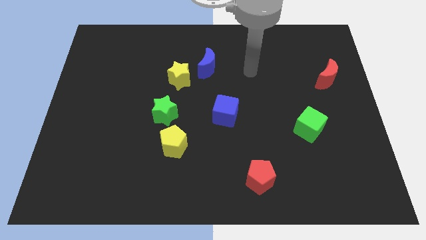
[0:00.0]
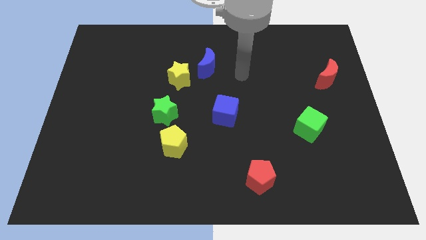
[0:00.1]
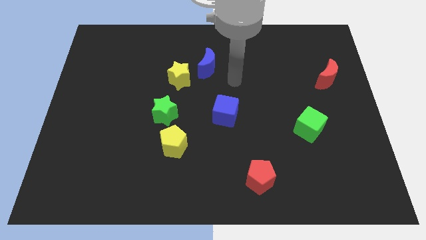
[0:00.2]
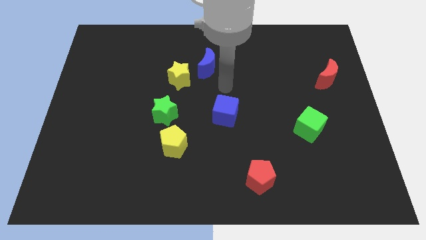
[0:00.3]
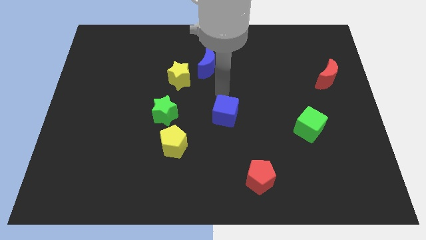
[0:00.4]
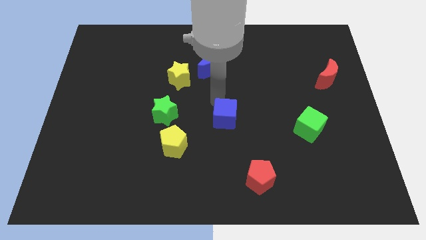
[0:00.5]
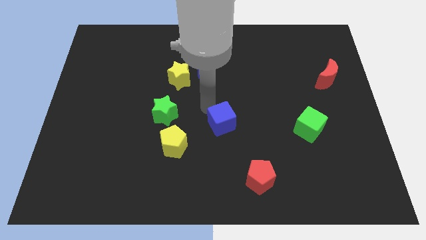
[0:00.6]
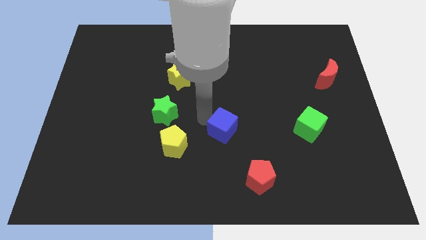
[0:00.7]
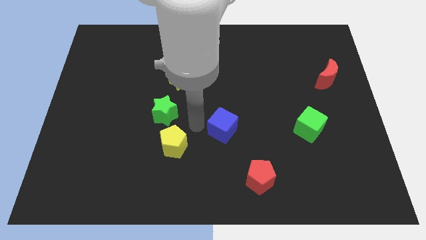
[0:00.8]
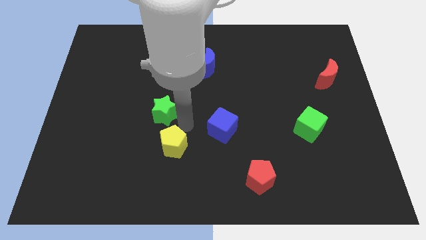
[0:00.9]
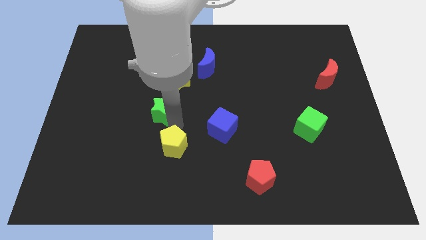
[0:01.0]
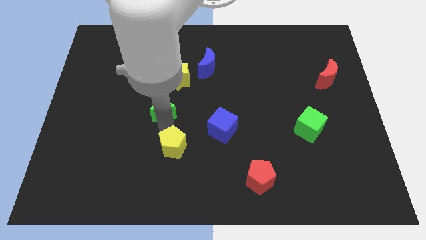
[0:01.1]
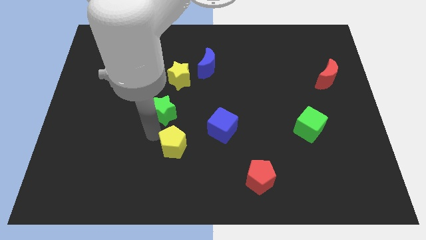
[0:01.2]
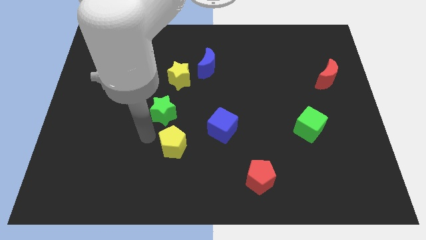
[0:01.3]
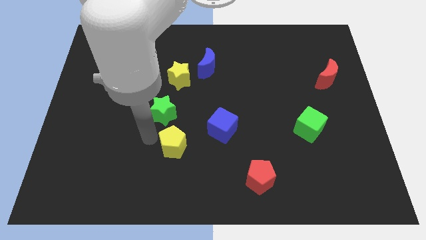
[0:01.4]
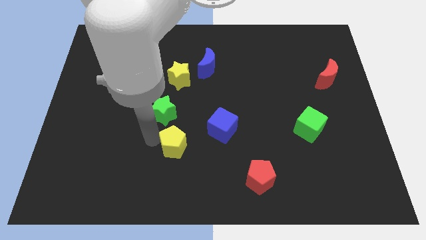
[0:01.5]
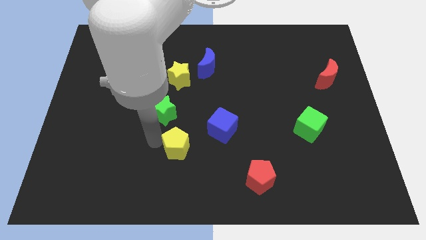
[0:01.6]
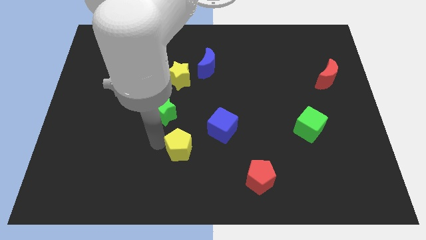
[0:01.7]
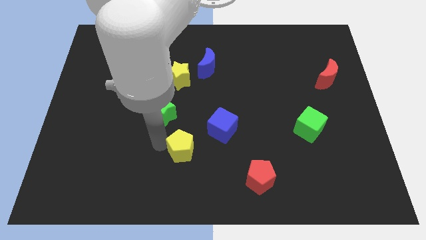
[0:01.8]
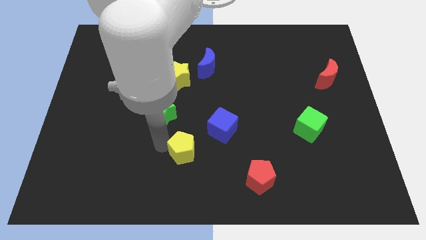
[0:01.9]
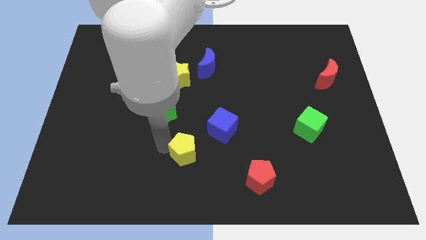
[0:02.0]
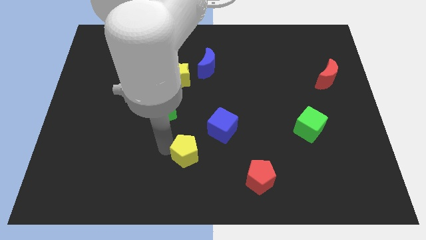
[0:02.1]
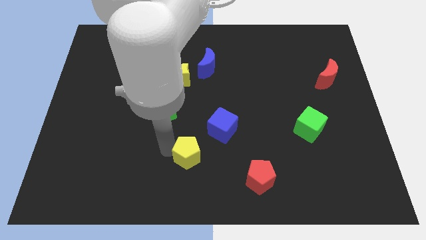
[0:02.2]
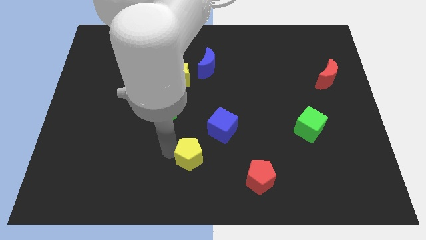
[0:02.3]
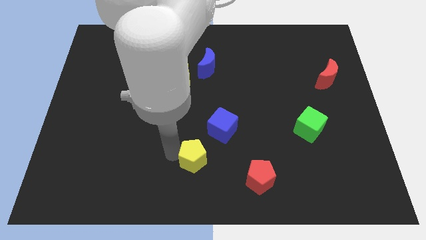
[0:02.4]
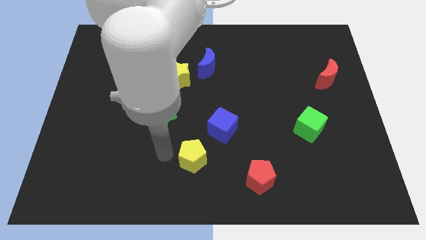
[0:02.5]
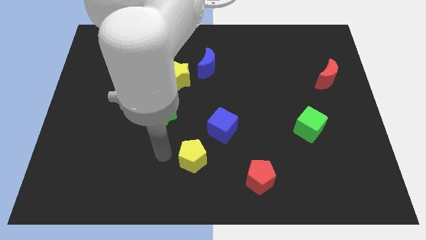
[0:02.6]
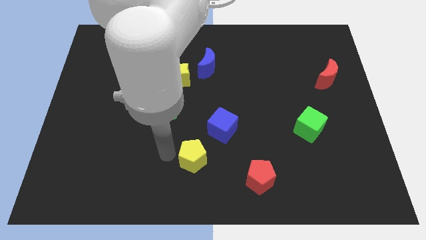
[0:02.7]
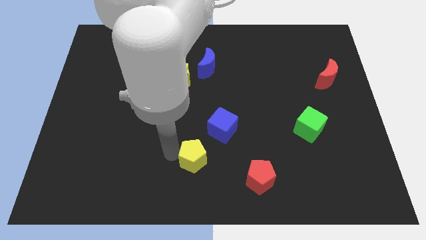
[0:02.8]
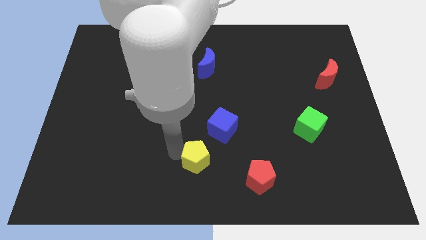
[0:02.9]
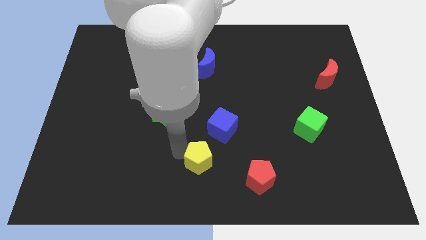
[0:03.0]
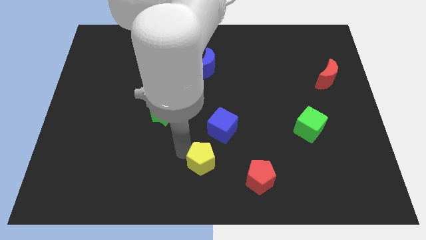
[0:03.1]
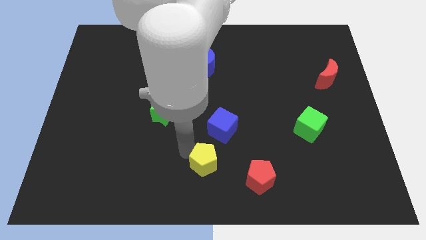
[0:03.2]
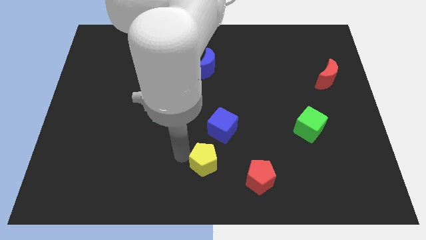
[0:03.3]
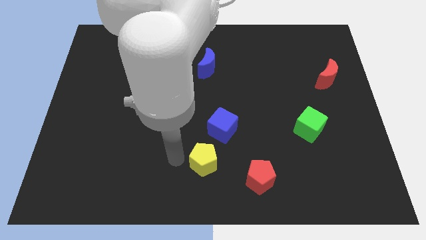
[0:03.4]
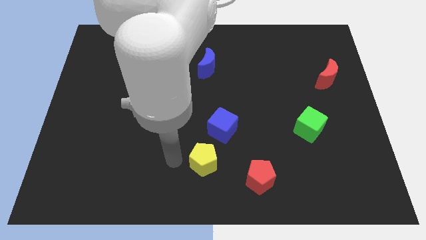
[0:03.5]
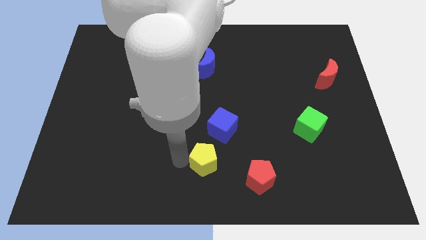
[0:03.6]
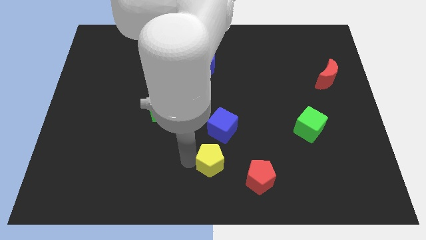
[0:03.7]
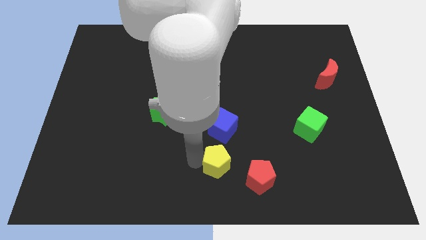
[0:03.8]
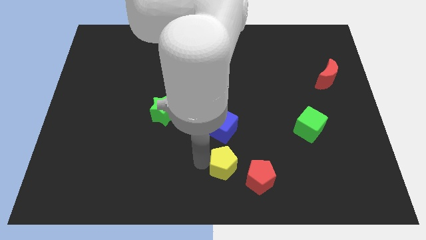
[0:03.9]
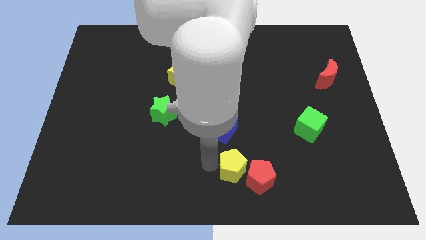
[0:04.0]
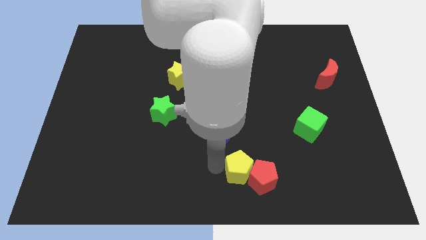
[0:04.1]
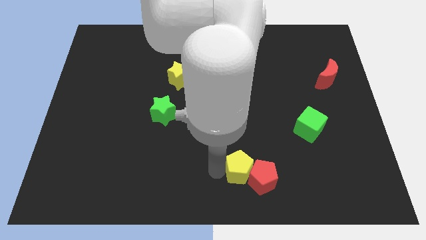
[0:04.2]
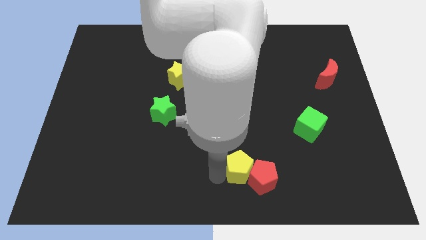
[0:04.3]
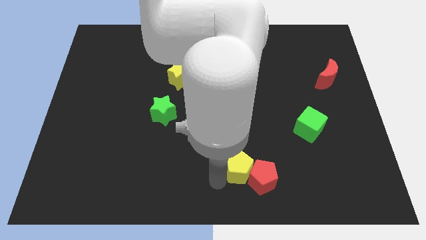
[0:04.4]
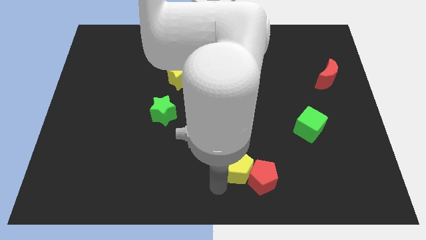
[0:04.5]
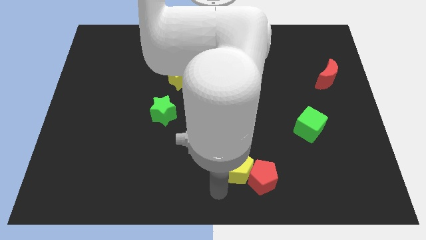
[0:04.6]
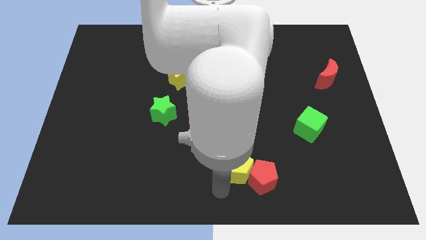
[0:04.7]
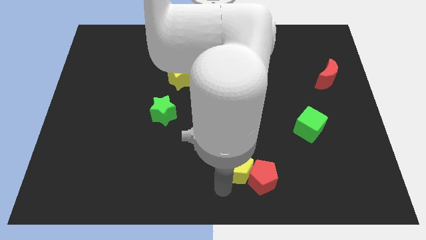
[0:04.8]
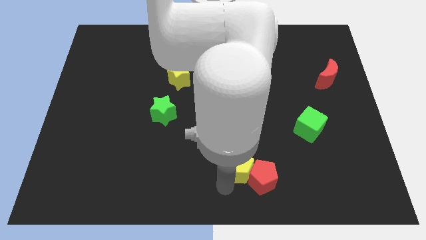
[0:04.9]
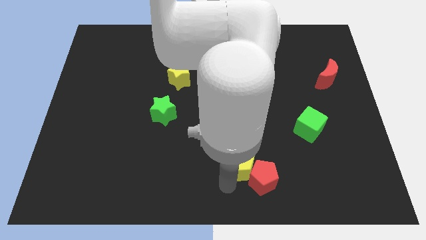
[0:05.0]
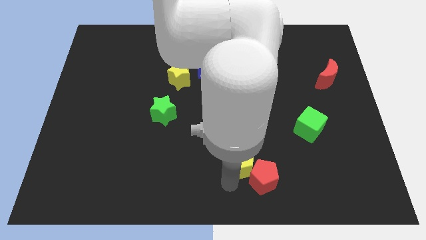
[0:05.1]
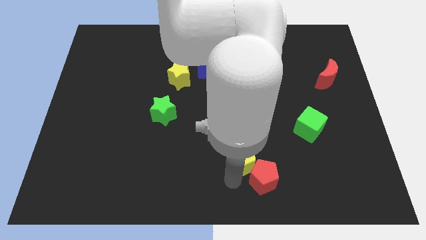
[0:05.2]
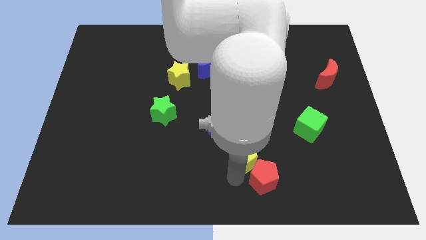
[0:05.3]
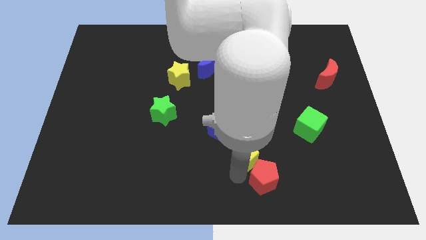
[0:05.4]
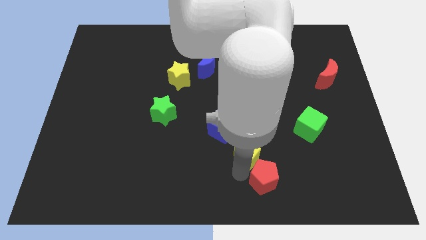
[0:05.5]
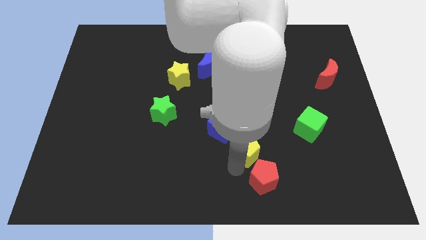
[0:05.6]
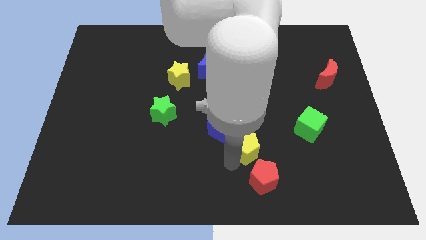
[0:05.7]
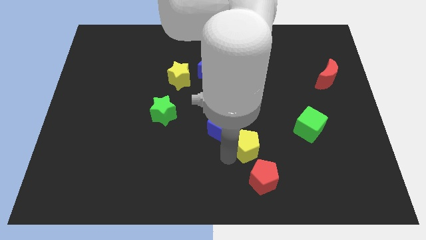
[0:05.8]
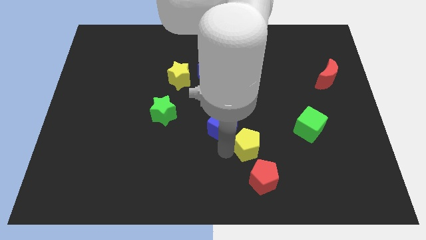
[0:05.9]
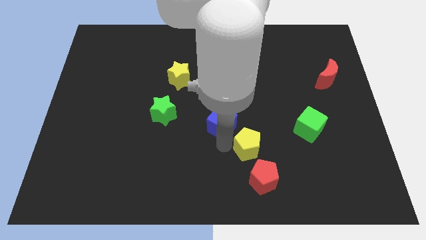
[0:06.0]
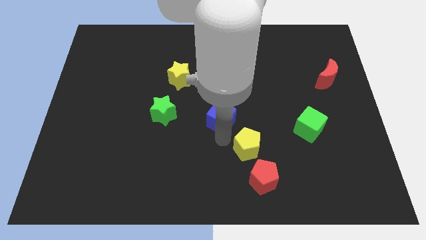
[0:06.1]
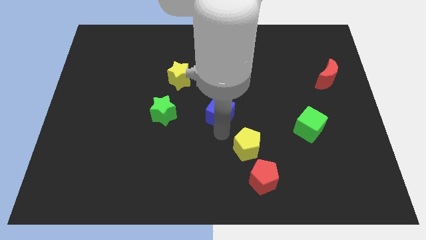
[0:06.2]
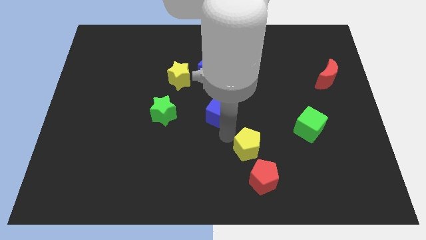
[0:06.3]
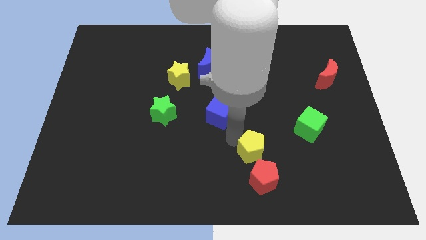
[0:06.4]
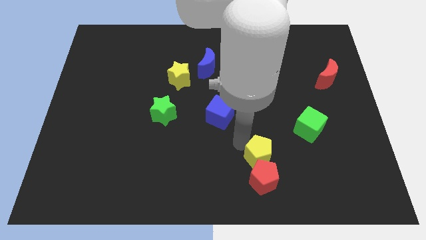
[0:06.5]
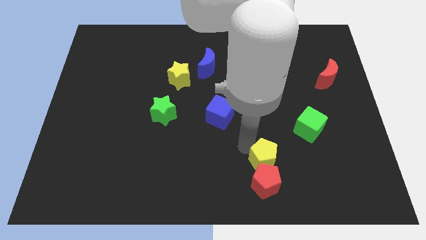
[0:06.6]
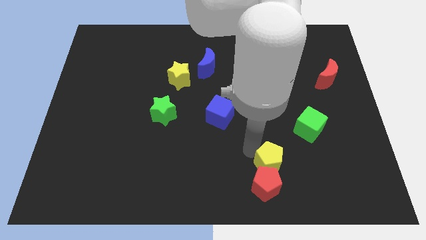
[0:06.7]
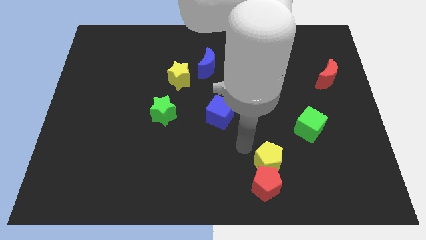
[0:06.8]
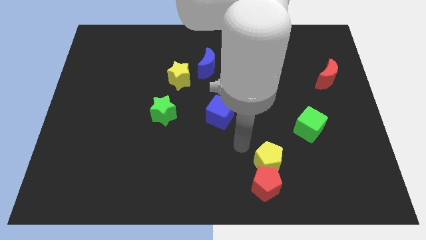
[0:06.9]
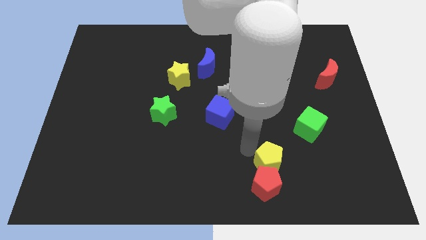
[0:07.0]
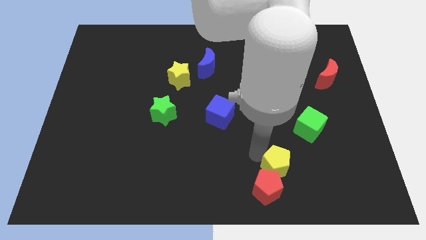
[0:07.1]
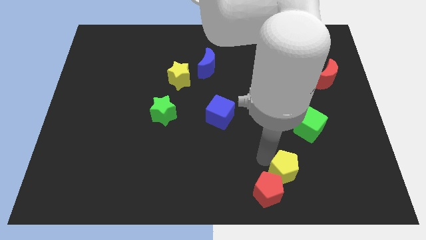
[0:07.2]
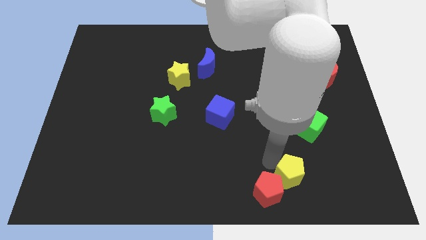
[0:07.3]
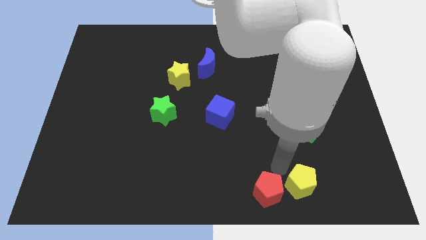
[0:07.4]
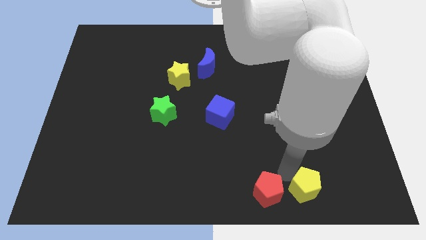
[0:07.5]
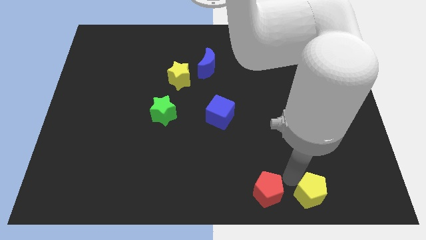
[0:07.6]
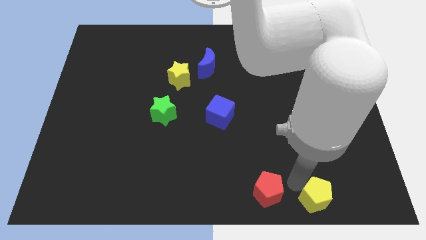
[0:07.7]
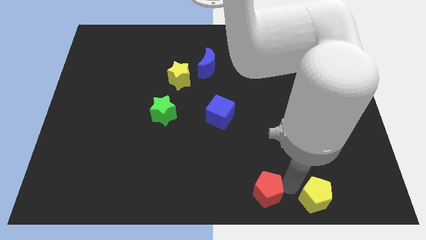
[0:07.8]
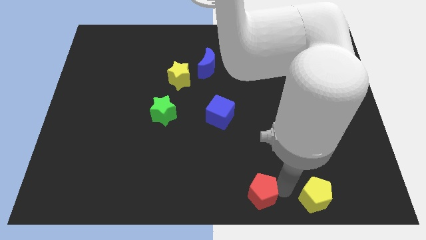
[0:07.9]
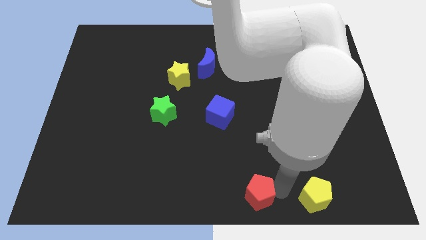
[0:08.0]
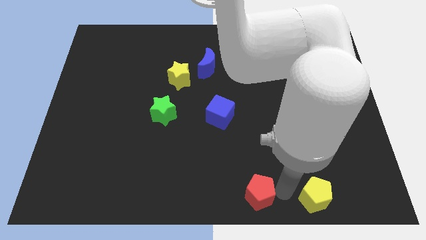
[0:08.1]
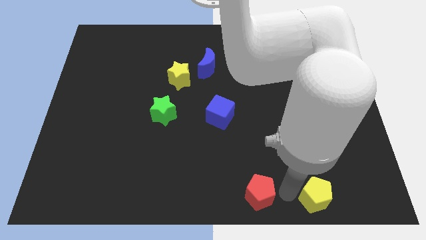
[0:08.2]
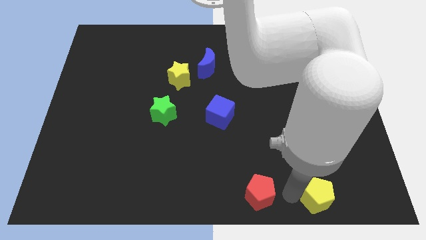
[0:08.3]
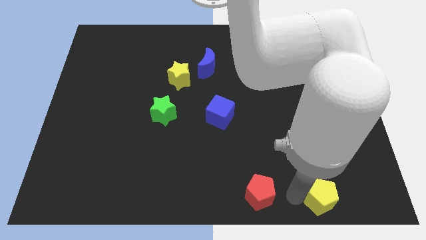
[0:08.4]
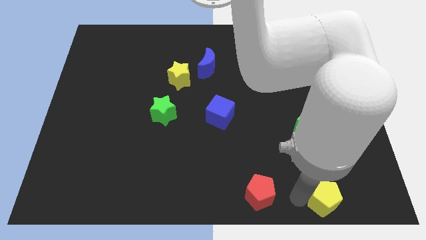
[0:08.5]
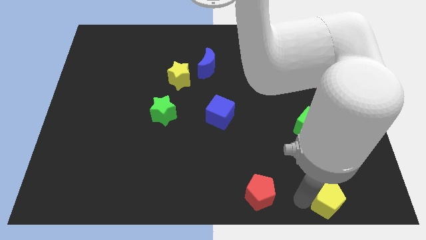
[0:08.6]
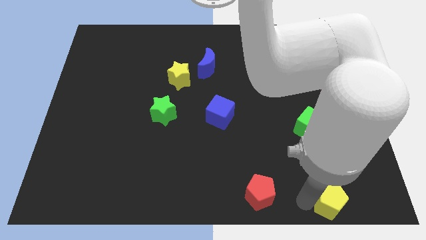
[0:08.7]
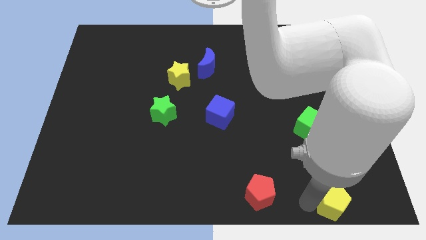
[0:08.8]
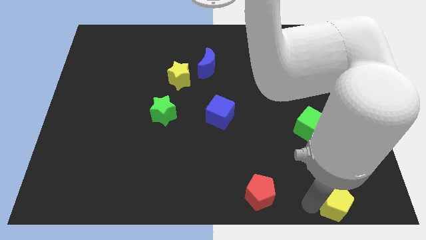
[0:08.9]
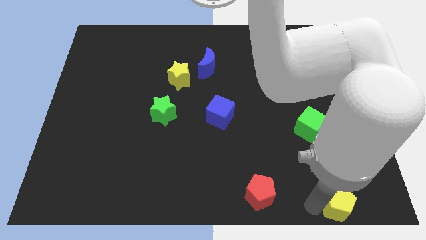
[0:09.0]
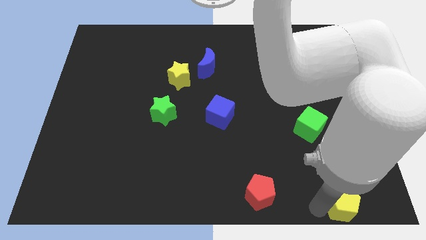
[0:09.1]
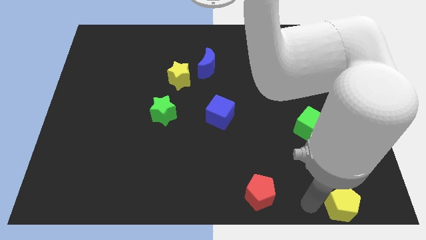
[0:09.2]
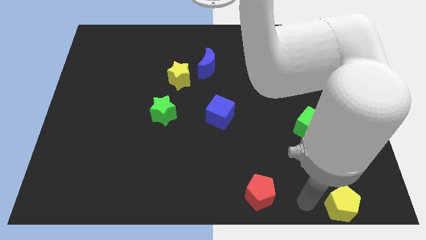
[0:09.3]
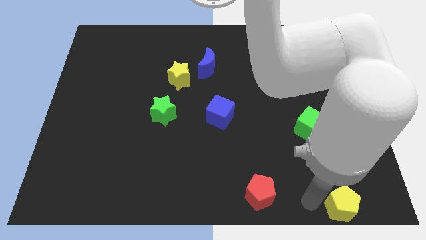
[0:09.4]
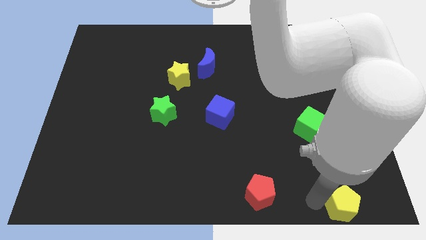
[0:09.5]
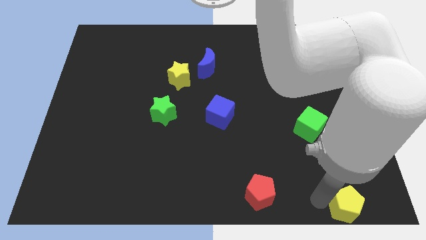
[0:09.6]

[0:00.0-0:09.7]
slide the yellow pentagon to the bottom right of the board
